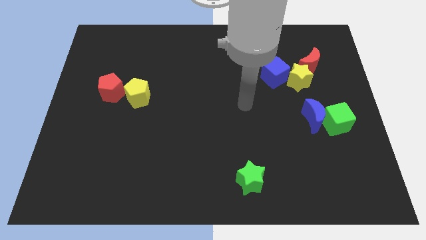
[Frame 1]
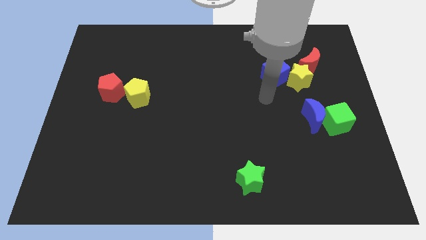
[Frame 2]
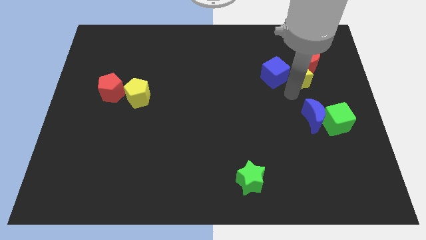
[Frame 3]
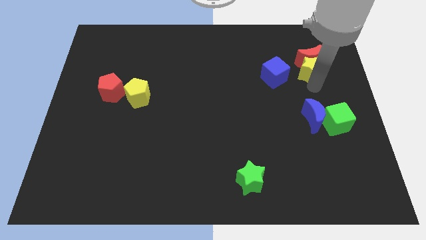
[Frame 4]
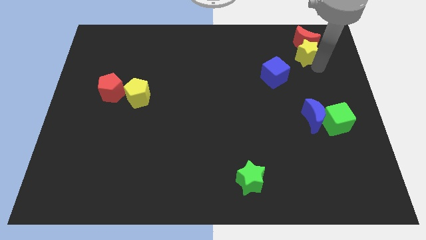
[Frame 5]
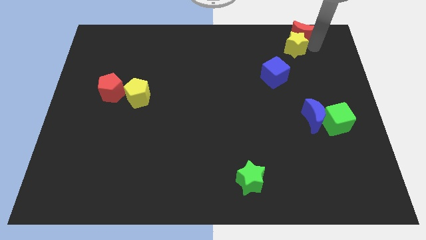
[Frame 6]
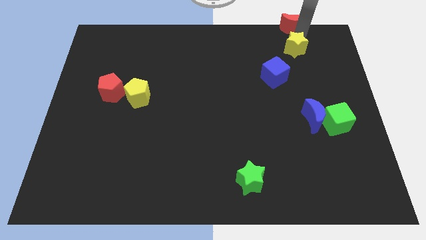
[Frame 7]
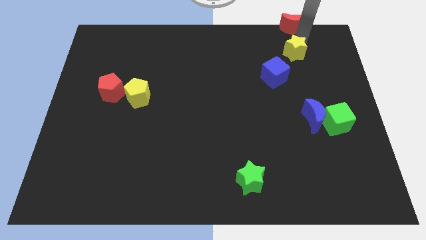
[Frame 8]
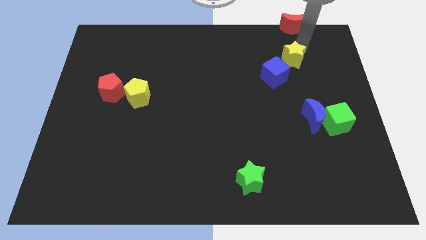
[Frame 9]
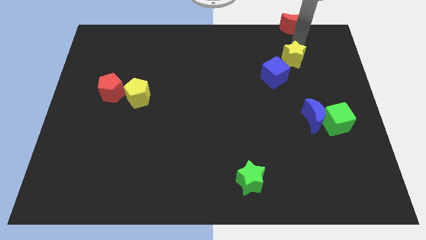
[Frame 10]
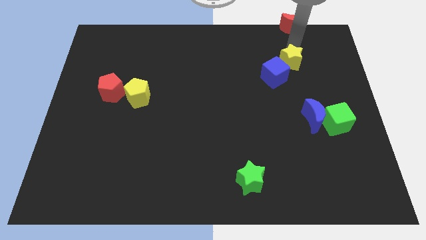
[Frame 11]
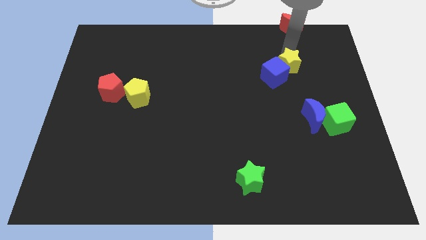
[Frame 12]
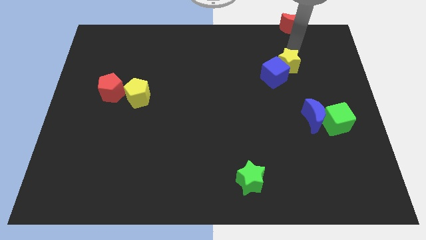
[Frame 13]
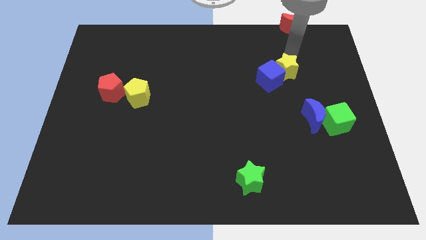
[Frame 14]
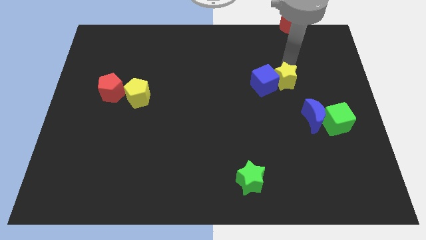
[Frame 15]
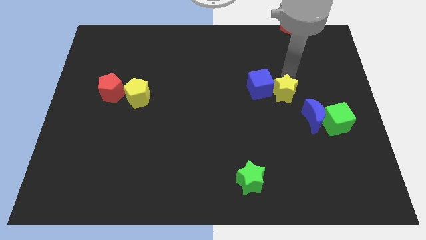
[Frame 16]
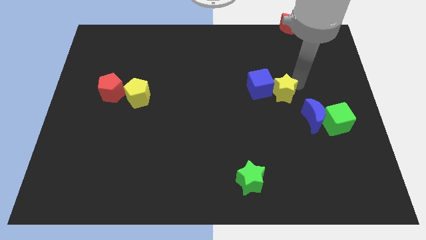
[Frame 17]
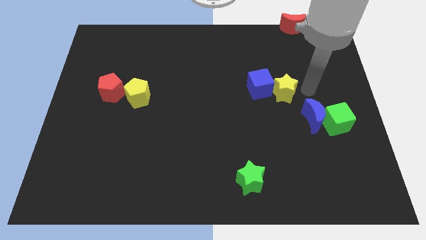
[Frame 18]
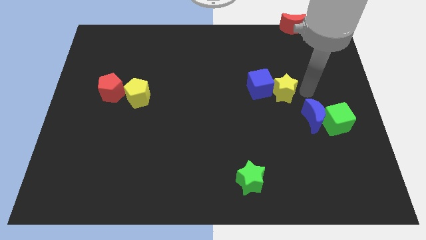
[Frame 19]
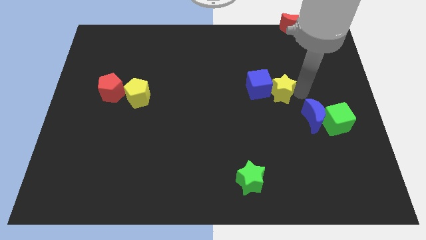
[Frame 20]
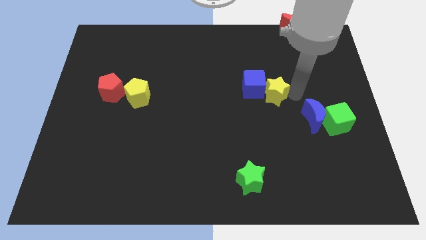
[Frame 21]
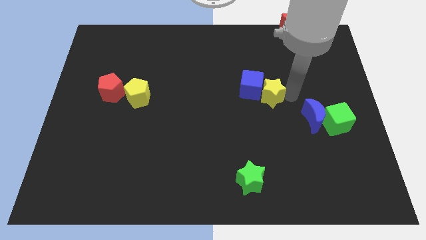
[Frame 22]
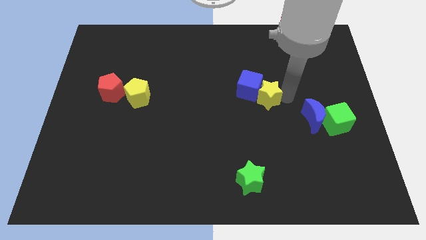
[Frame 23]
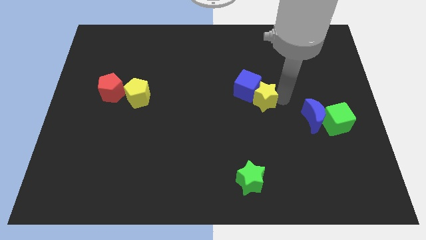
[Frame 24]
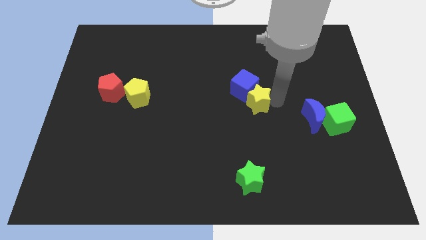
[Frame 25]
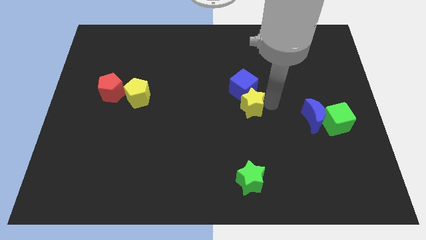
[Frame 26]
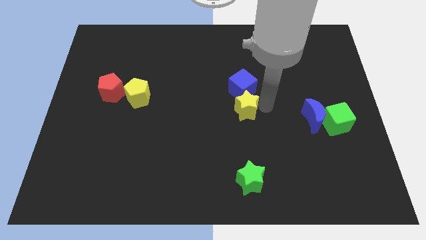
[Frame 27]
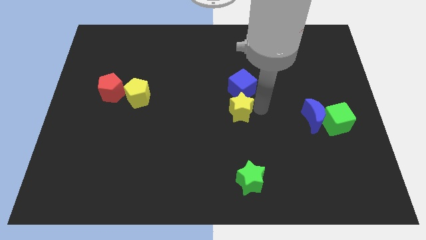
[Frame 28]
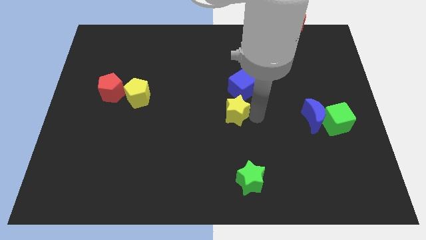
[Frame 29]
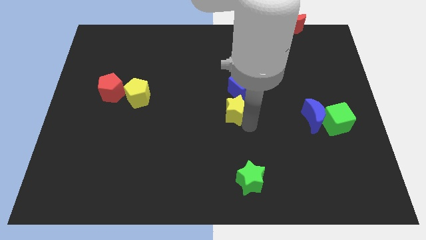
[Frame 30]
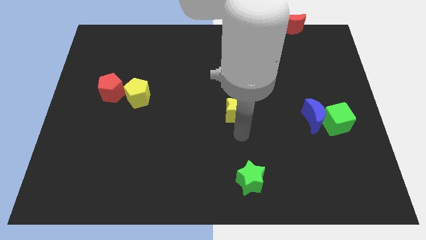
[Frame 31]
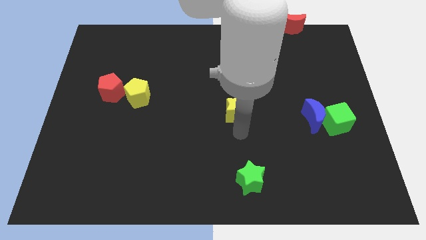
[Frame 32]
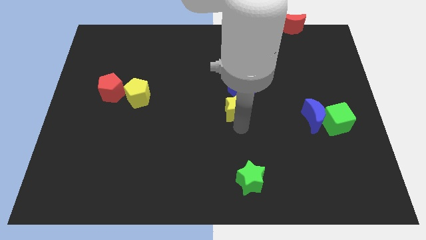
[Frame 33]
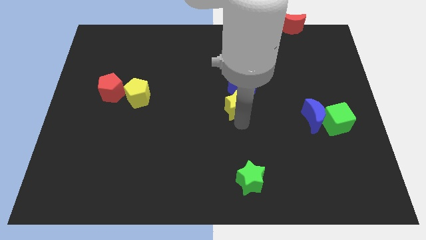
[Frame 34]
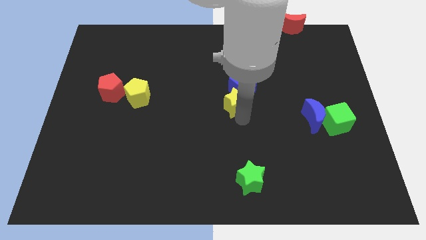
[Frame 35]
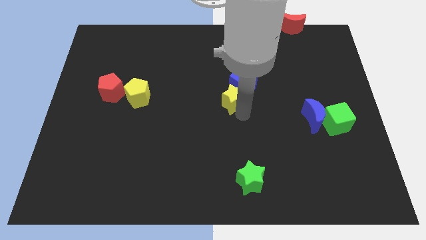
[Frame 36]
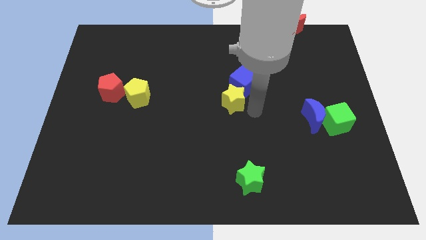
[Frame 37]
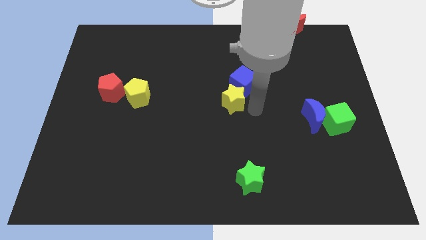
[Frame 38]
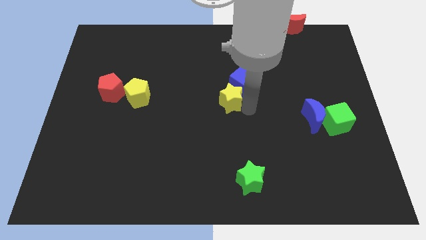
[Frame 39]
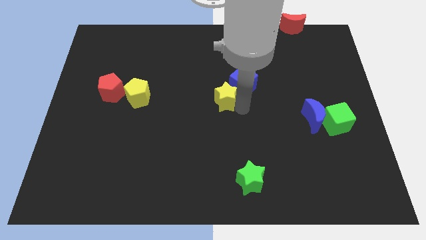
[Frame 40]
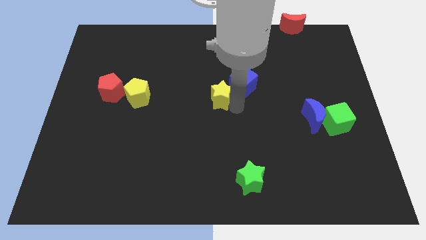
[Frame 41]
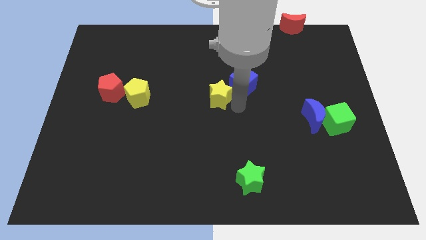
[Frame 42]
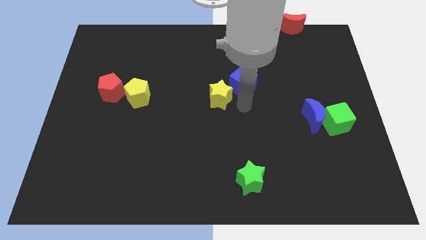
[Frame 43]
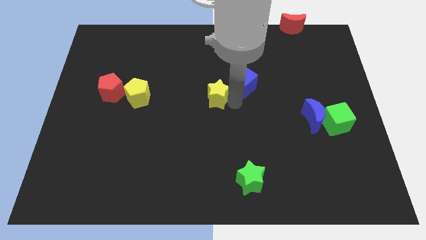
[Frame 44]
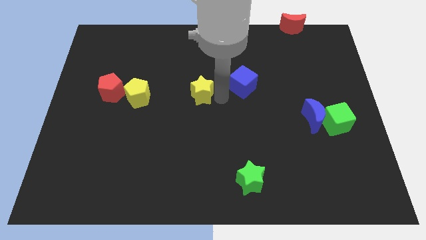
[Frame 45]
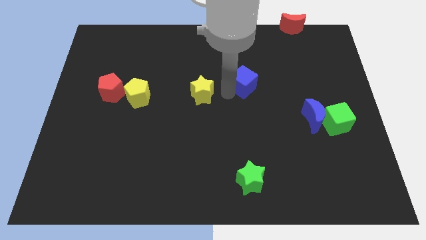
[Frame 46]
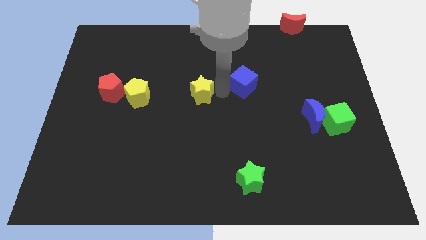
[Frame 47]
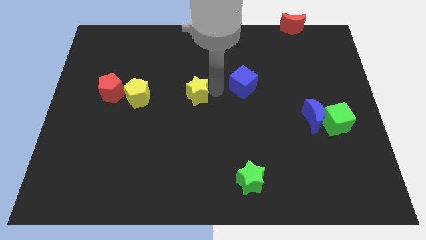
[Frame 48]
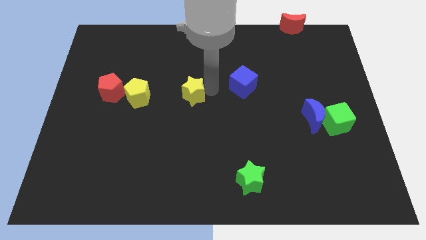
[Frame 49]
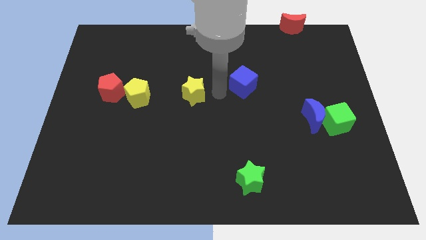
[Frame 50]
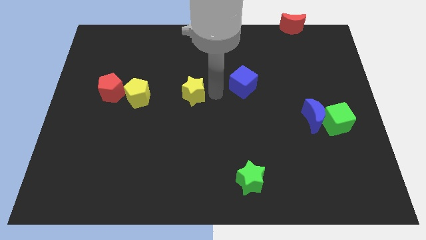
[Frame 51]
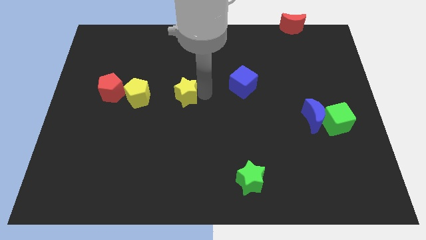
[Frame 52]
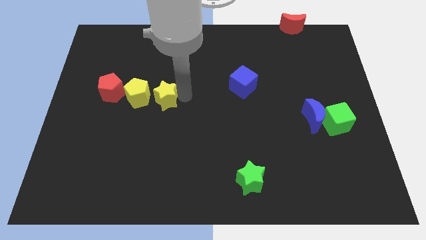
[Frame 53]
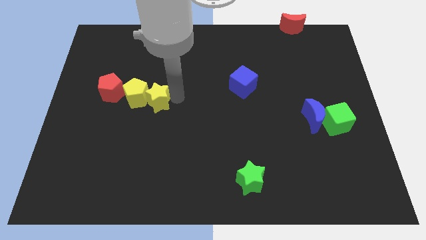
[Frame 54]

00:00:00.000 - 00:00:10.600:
push the yellow star towards the yellow pentagon

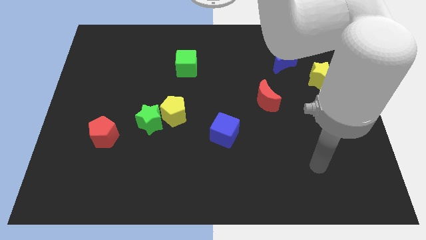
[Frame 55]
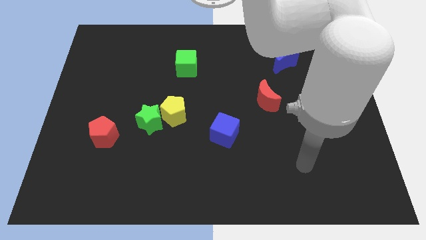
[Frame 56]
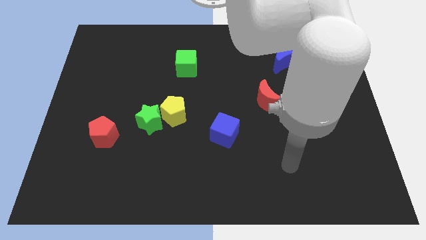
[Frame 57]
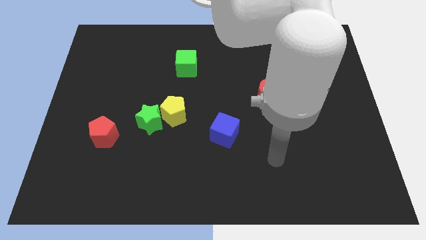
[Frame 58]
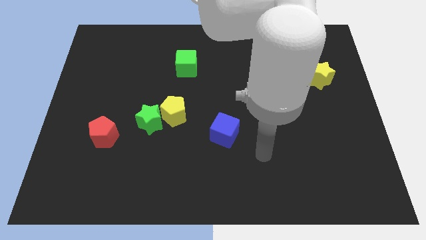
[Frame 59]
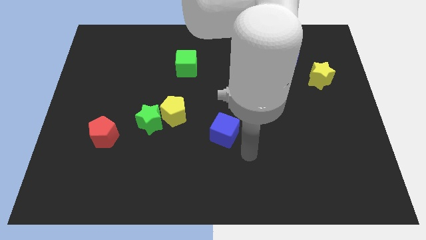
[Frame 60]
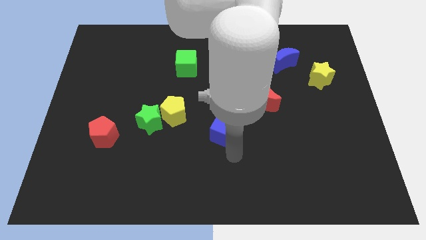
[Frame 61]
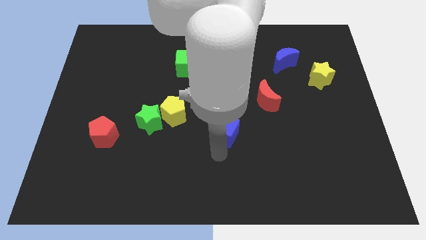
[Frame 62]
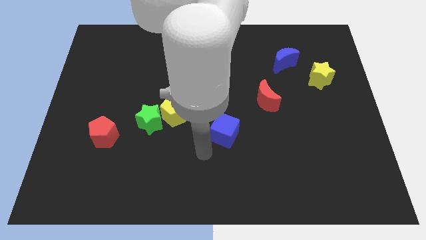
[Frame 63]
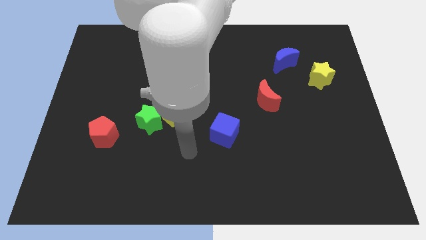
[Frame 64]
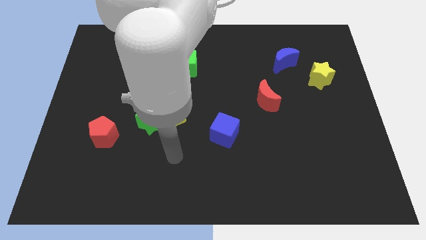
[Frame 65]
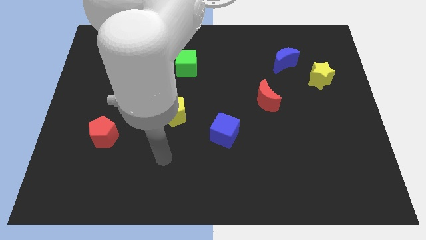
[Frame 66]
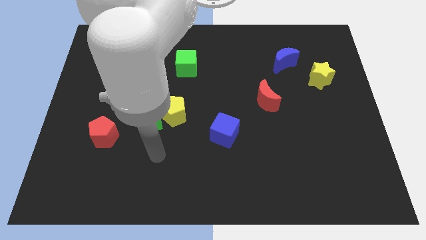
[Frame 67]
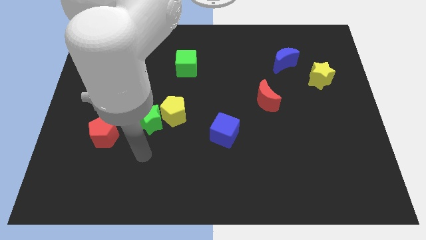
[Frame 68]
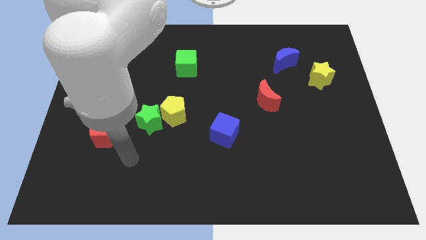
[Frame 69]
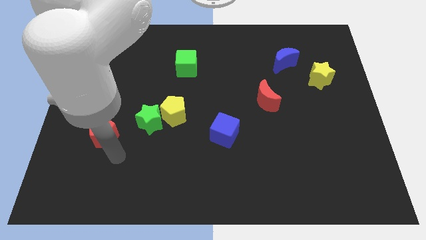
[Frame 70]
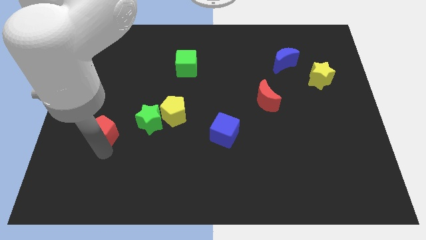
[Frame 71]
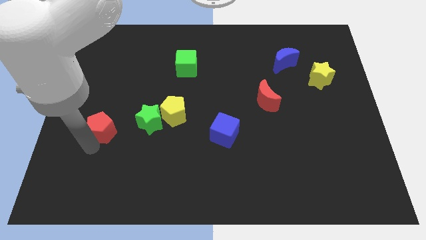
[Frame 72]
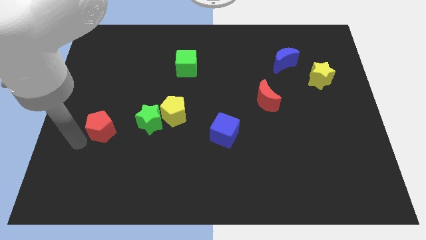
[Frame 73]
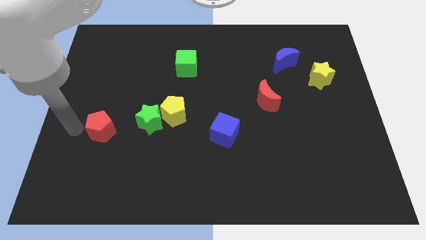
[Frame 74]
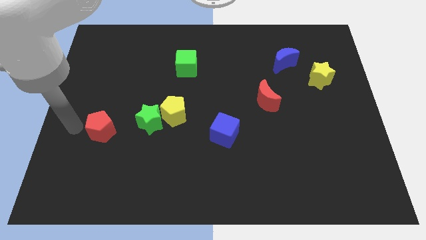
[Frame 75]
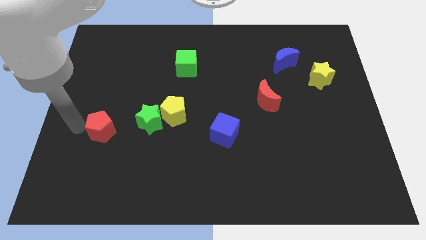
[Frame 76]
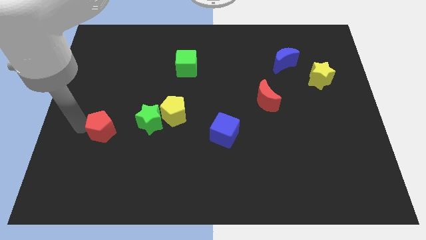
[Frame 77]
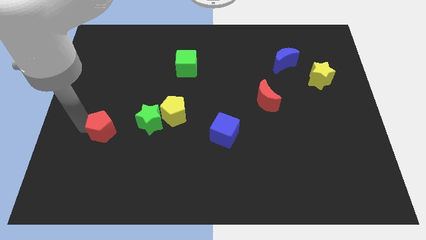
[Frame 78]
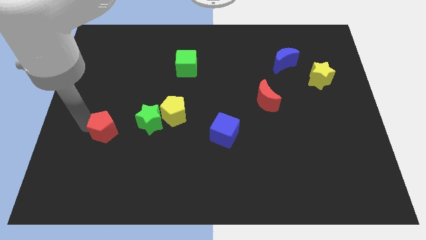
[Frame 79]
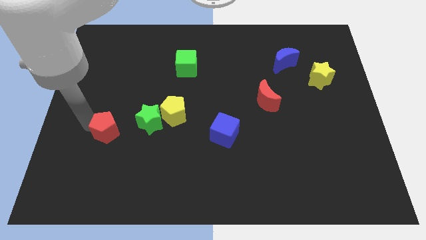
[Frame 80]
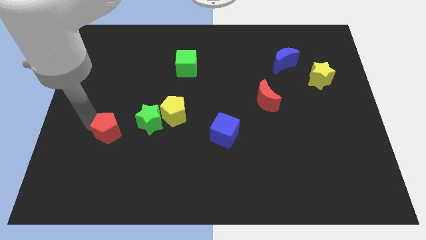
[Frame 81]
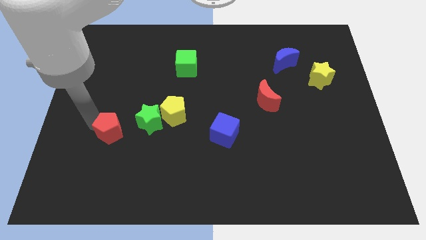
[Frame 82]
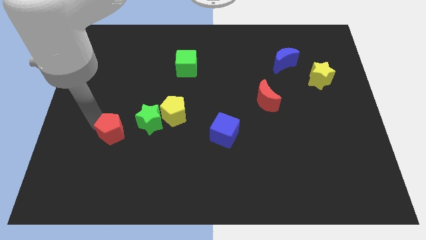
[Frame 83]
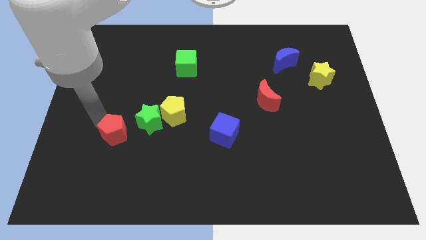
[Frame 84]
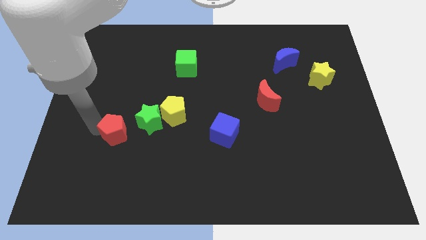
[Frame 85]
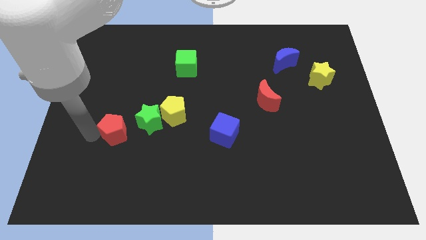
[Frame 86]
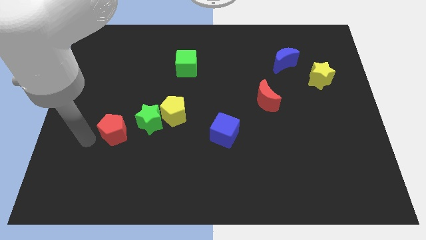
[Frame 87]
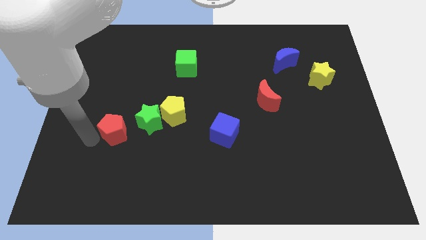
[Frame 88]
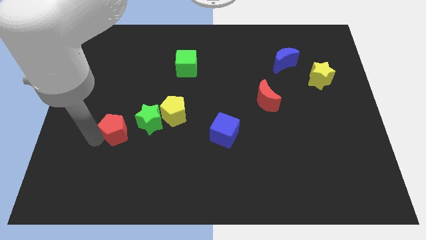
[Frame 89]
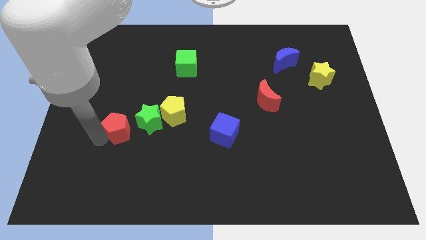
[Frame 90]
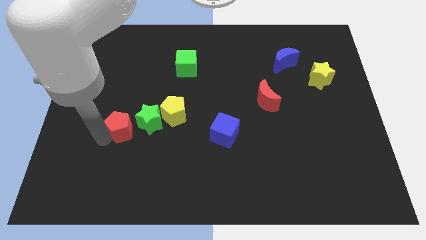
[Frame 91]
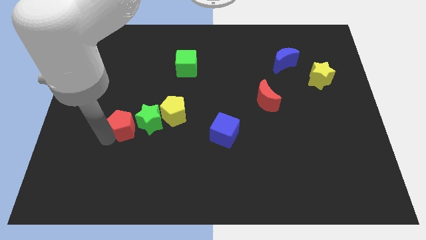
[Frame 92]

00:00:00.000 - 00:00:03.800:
move the red pentagon towards the green star
